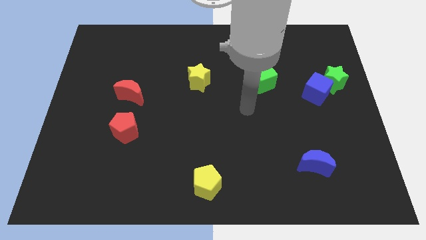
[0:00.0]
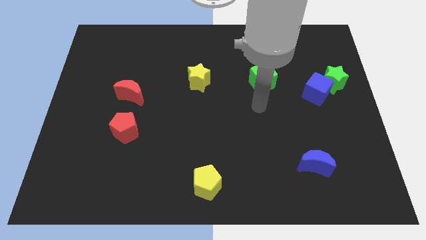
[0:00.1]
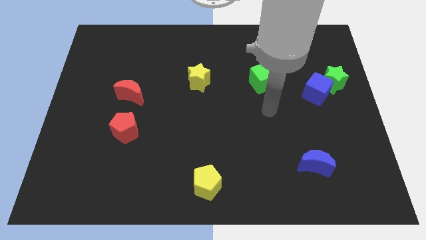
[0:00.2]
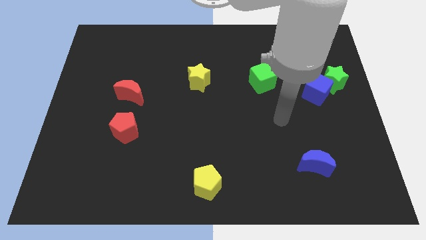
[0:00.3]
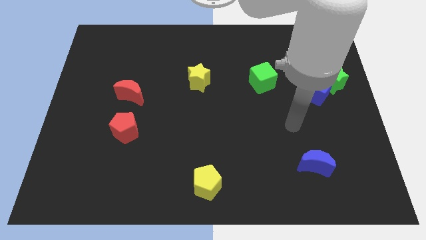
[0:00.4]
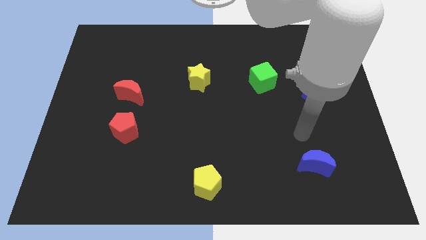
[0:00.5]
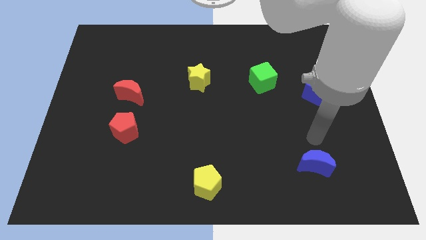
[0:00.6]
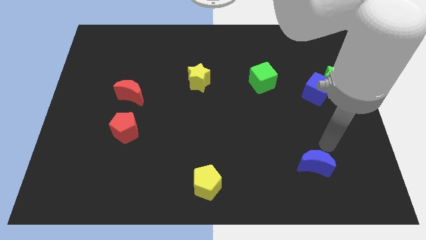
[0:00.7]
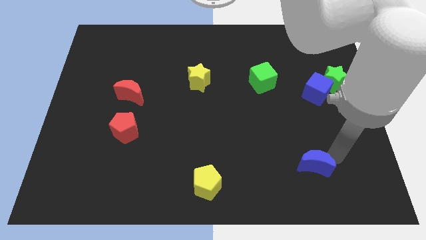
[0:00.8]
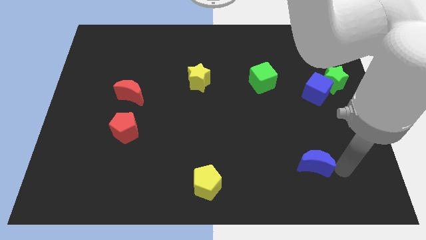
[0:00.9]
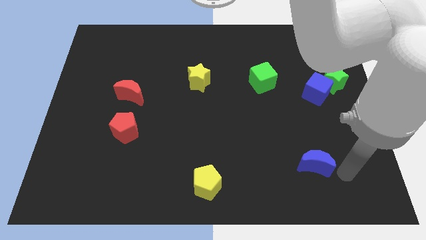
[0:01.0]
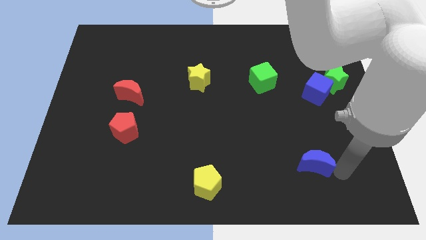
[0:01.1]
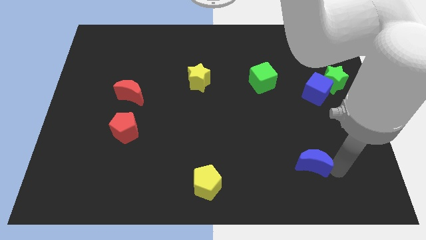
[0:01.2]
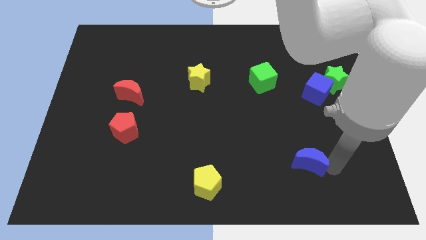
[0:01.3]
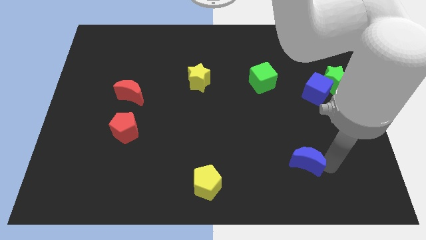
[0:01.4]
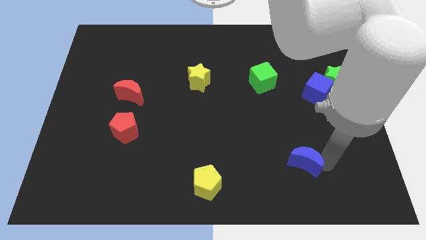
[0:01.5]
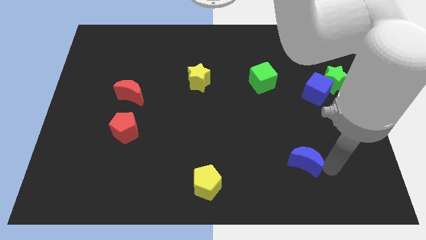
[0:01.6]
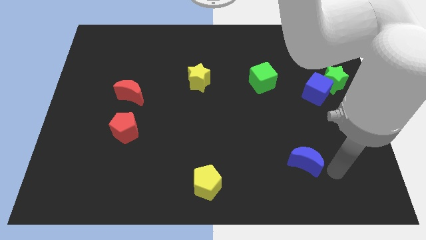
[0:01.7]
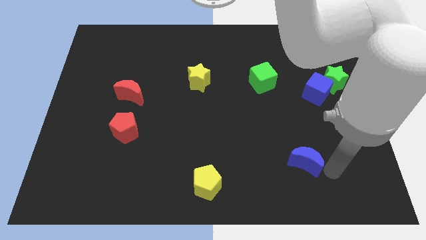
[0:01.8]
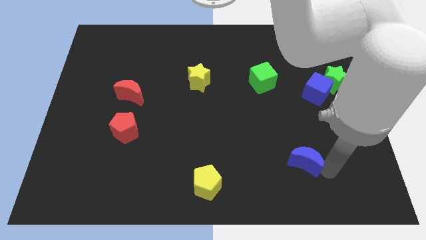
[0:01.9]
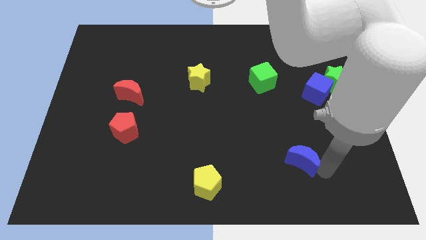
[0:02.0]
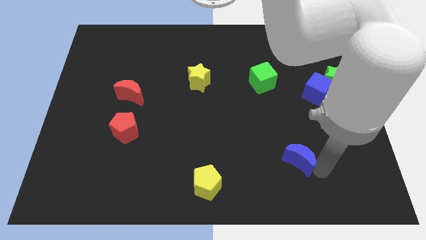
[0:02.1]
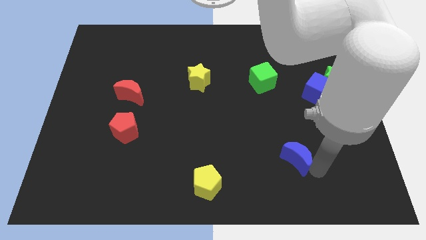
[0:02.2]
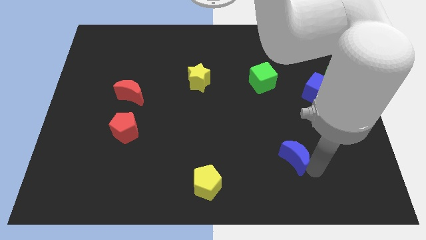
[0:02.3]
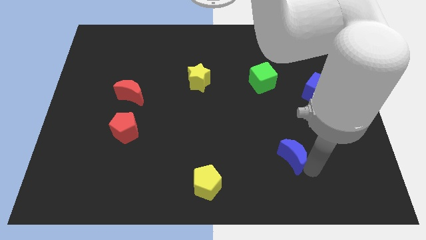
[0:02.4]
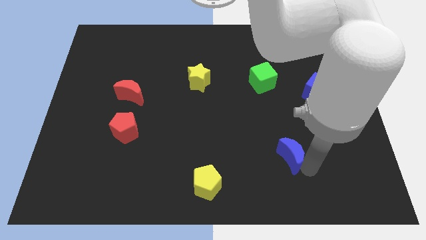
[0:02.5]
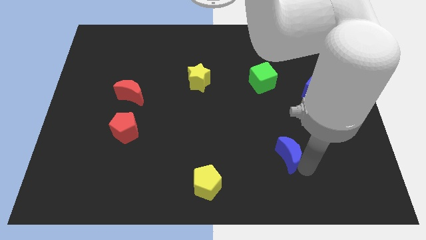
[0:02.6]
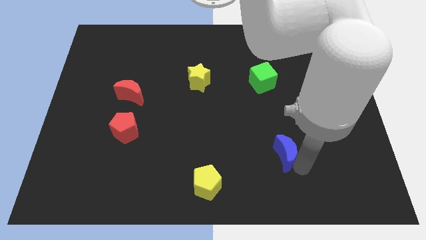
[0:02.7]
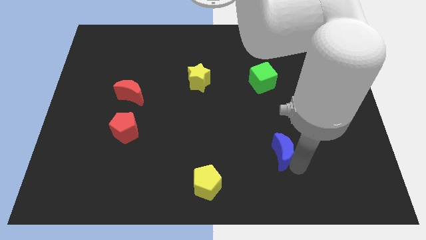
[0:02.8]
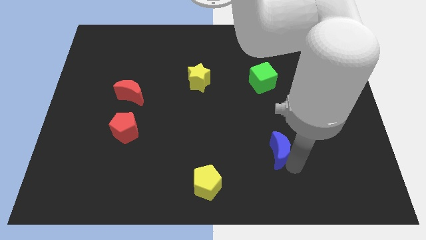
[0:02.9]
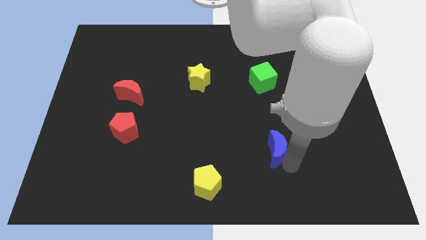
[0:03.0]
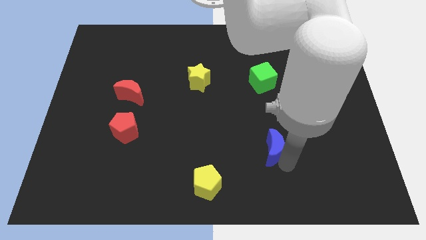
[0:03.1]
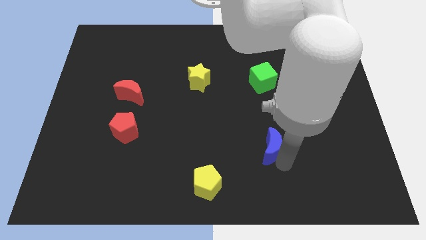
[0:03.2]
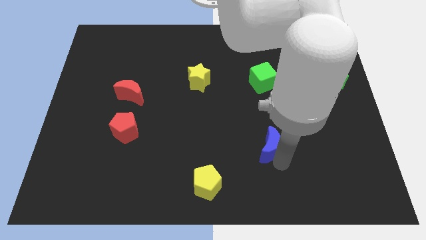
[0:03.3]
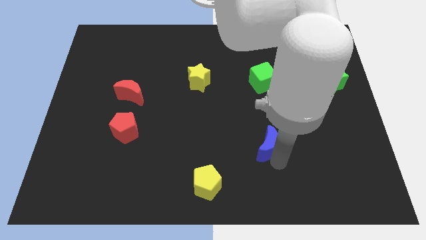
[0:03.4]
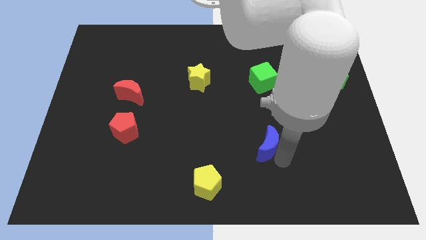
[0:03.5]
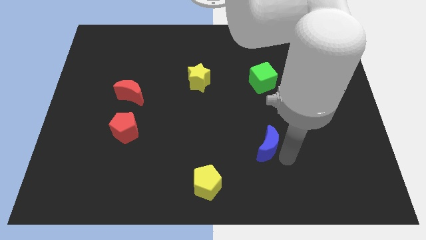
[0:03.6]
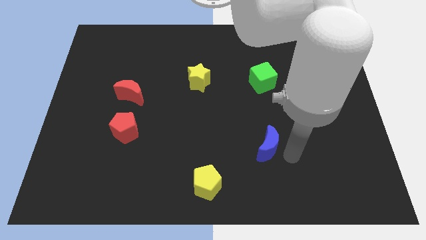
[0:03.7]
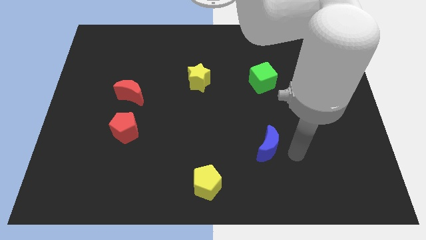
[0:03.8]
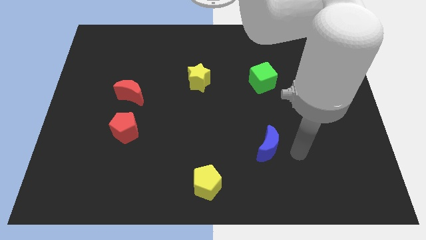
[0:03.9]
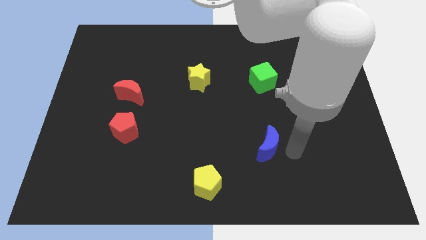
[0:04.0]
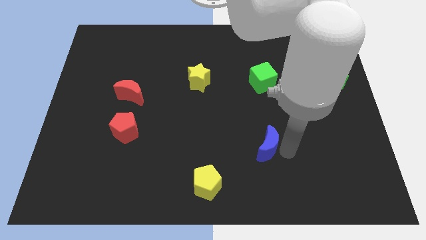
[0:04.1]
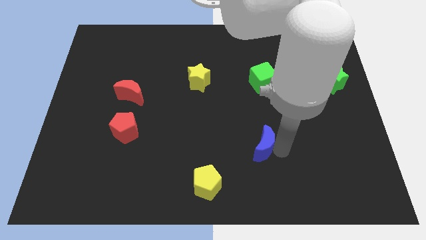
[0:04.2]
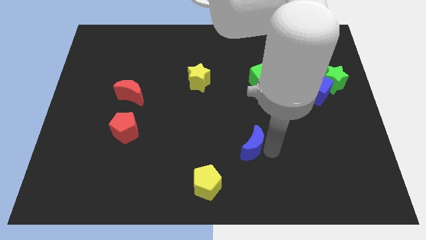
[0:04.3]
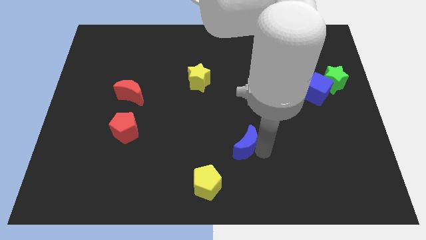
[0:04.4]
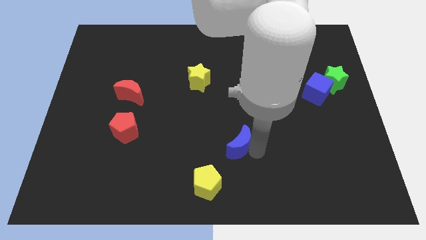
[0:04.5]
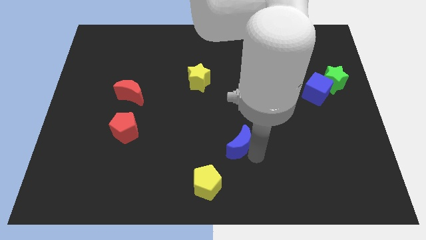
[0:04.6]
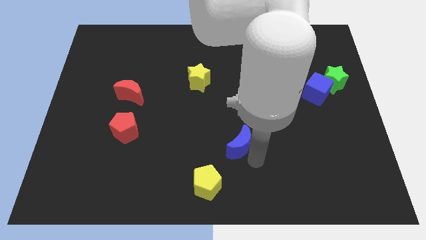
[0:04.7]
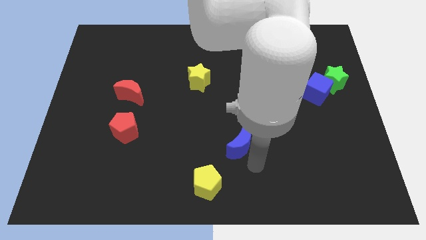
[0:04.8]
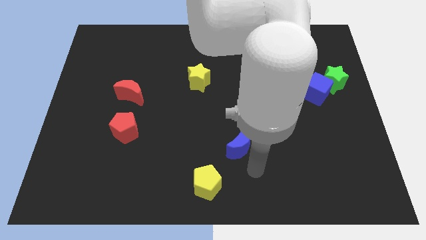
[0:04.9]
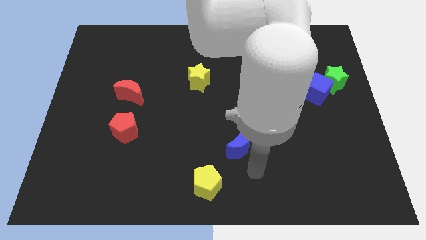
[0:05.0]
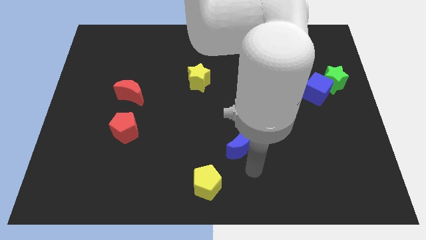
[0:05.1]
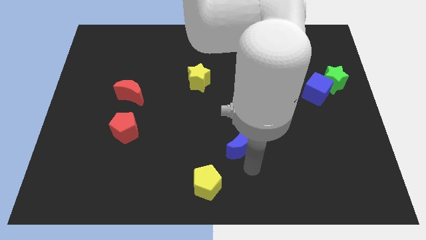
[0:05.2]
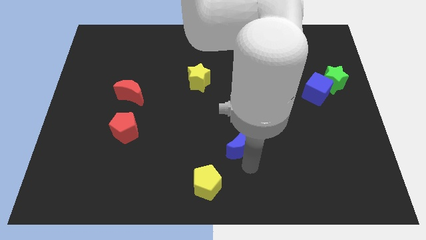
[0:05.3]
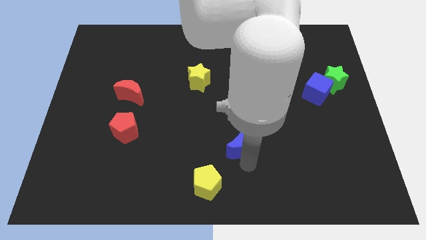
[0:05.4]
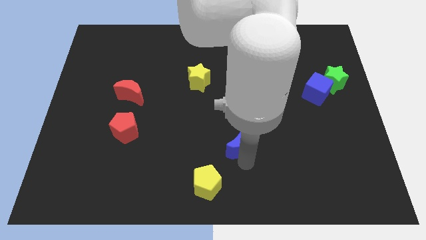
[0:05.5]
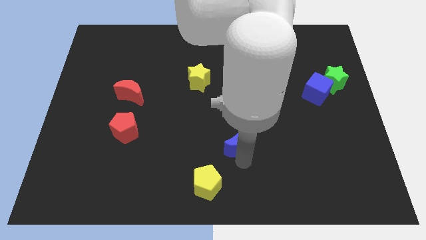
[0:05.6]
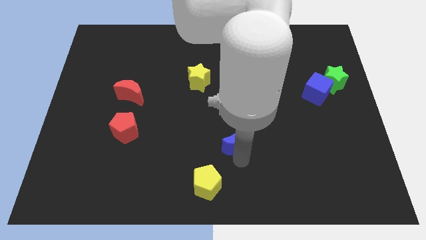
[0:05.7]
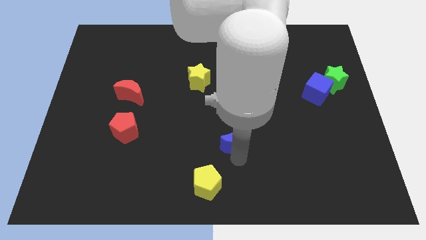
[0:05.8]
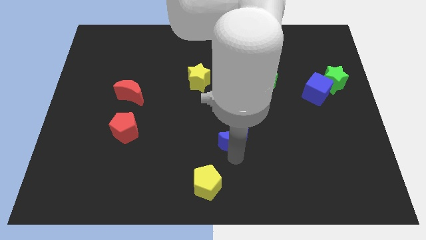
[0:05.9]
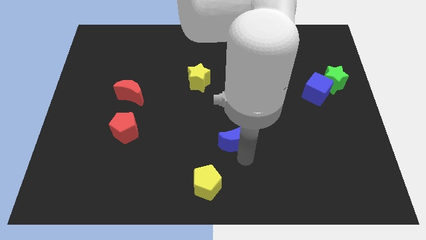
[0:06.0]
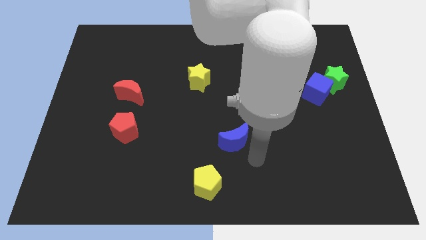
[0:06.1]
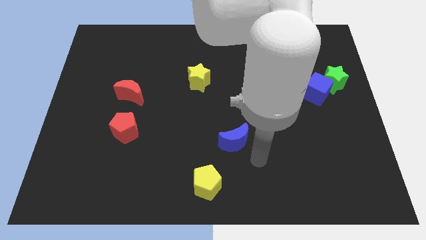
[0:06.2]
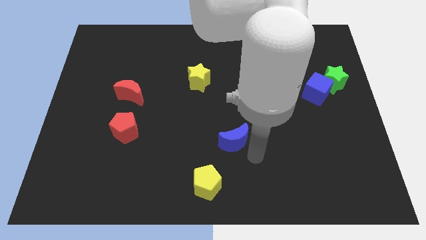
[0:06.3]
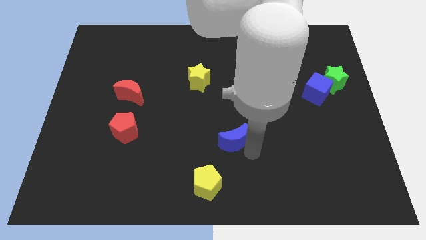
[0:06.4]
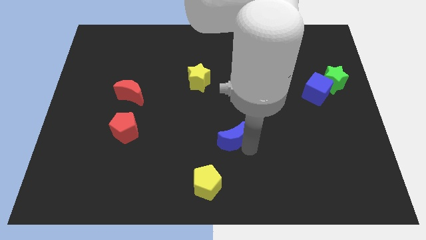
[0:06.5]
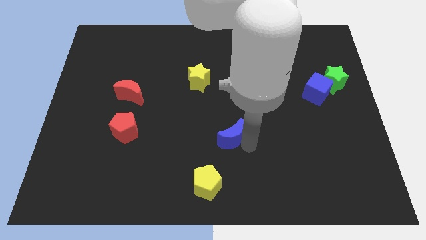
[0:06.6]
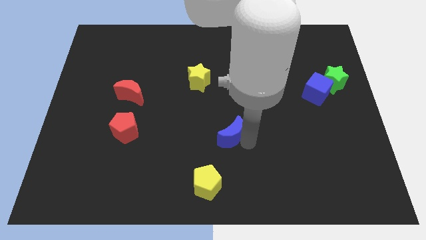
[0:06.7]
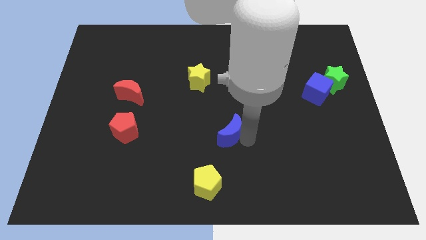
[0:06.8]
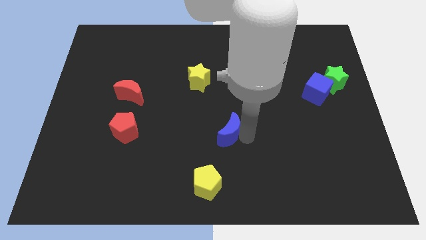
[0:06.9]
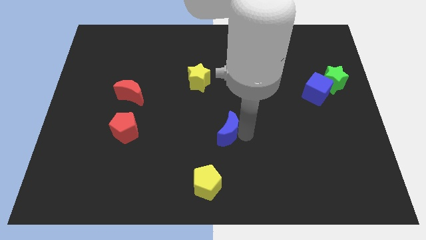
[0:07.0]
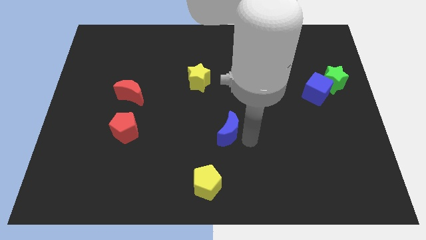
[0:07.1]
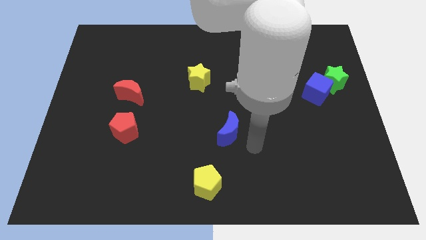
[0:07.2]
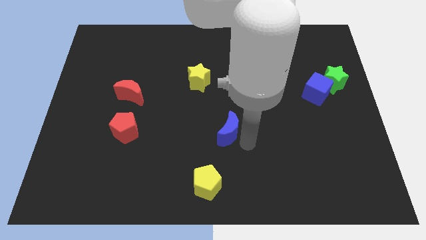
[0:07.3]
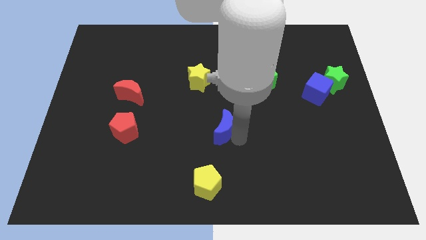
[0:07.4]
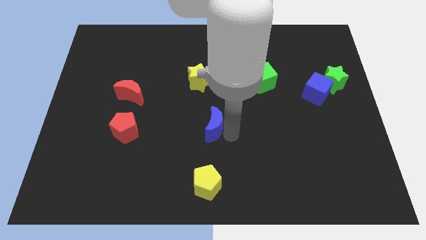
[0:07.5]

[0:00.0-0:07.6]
put the blue moon to the bottom of the yellow star
